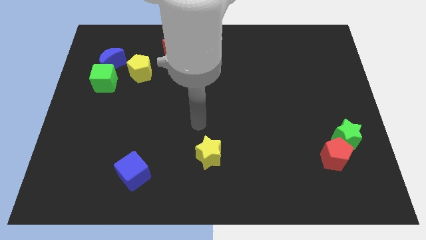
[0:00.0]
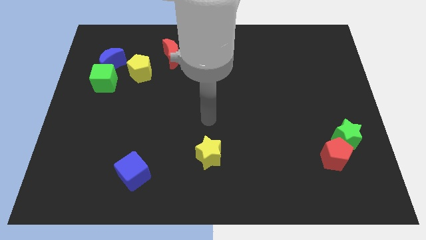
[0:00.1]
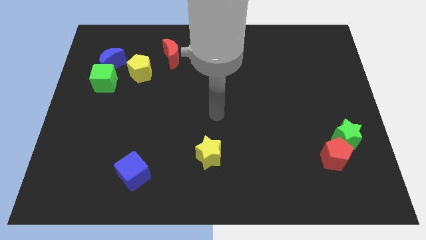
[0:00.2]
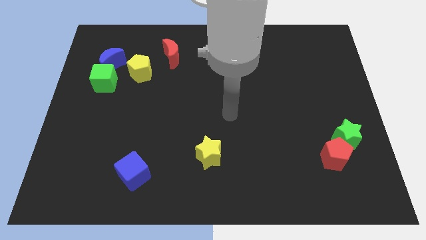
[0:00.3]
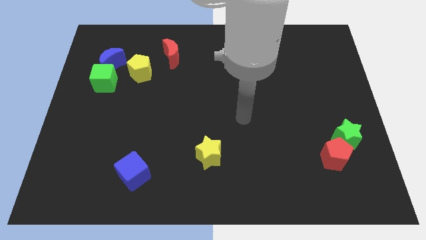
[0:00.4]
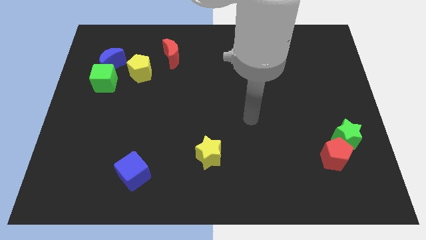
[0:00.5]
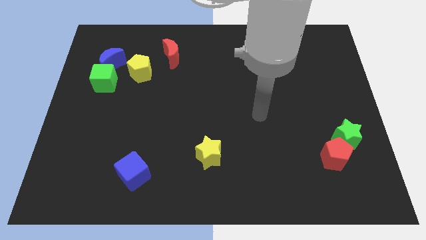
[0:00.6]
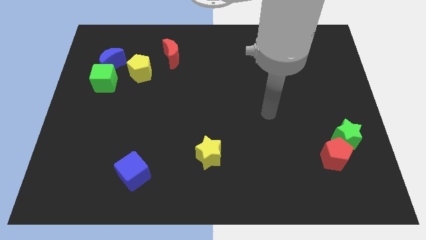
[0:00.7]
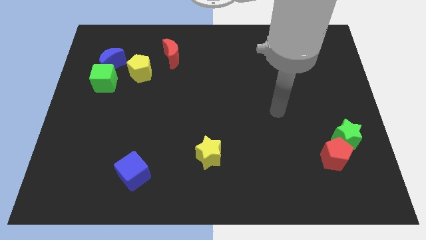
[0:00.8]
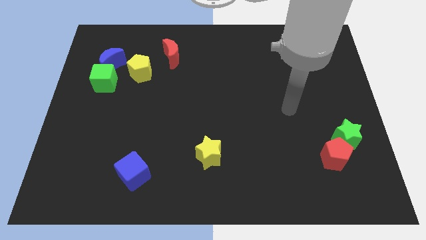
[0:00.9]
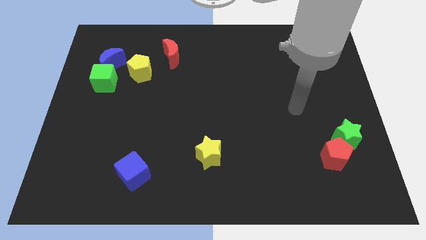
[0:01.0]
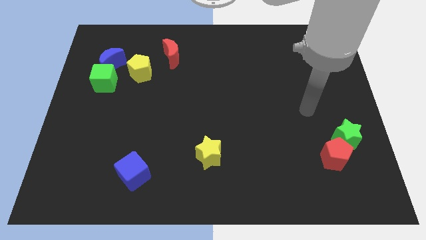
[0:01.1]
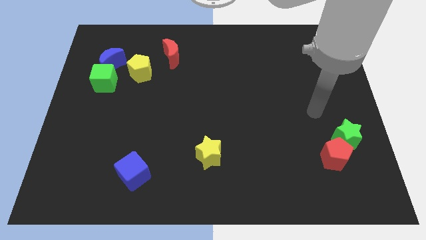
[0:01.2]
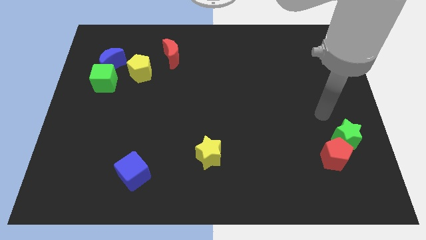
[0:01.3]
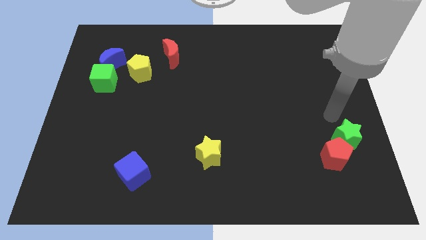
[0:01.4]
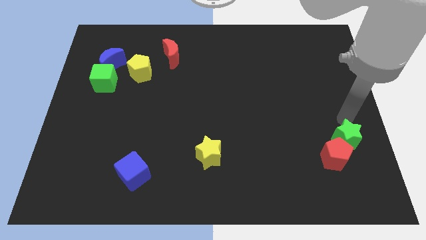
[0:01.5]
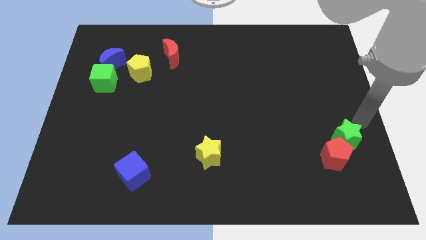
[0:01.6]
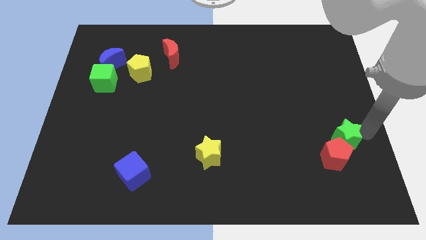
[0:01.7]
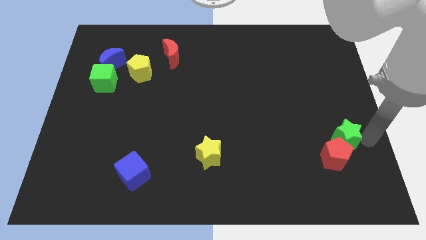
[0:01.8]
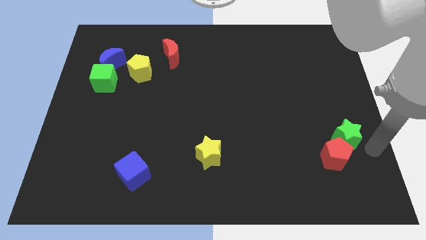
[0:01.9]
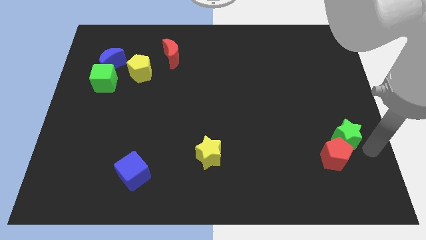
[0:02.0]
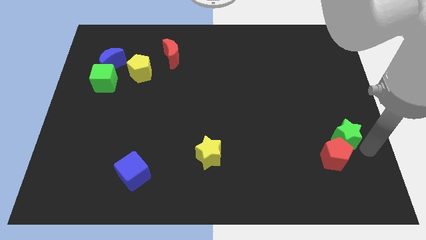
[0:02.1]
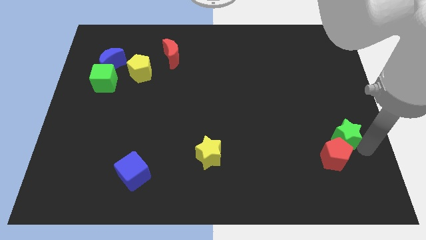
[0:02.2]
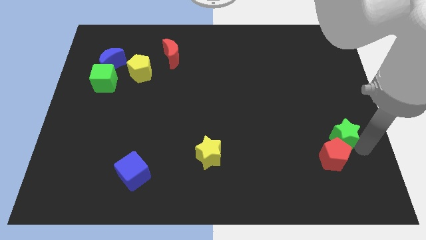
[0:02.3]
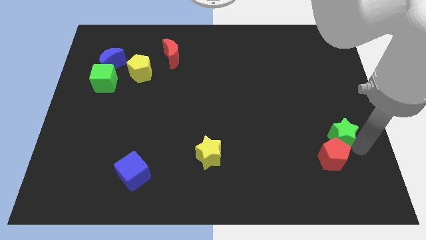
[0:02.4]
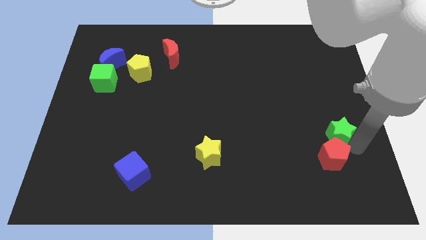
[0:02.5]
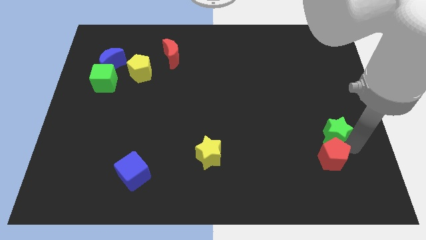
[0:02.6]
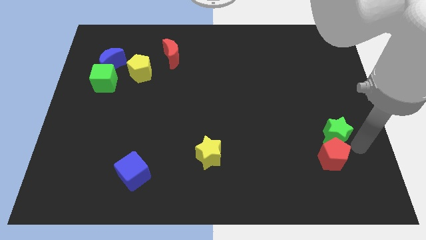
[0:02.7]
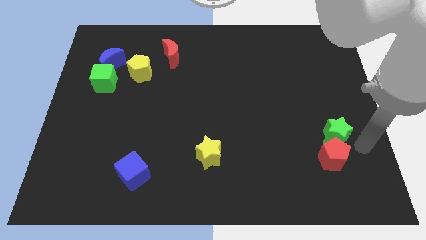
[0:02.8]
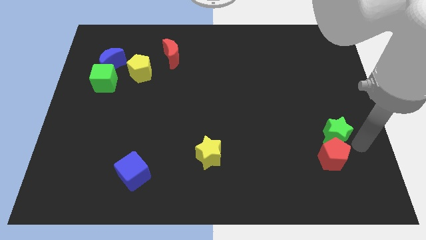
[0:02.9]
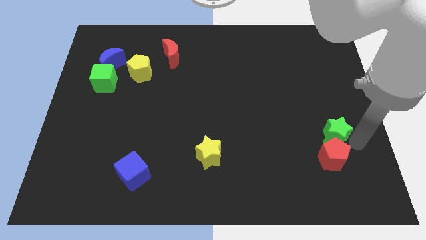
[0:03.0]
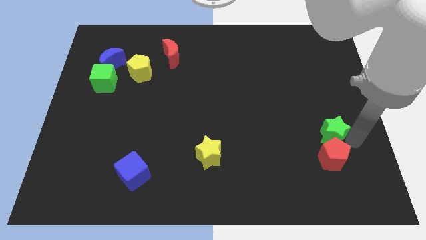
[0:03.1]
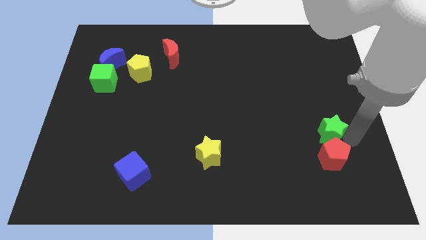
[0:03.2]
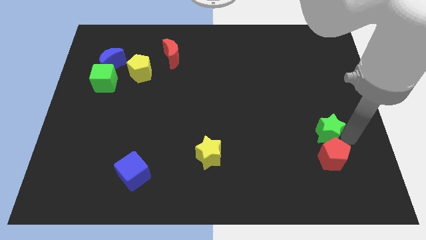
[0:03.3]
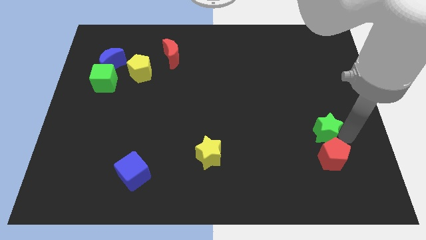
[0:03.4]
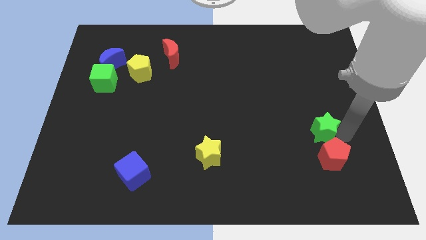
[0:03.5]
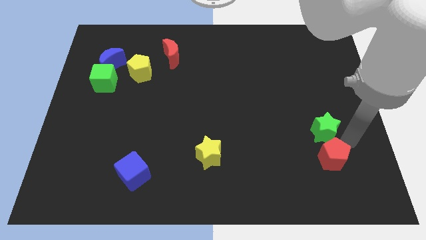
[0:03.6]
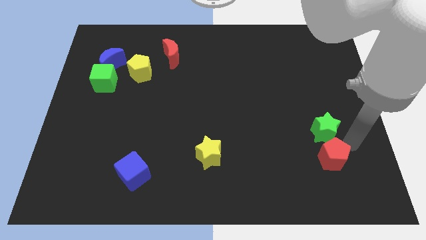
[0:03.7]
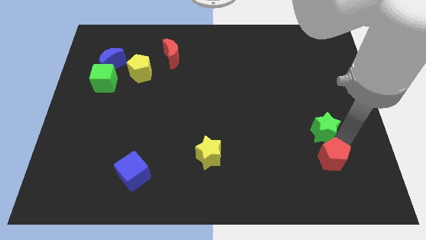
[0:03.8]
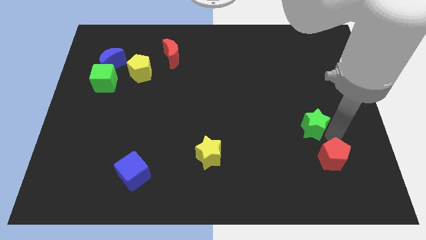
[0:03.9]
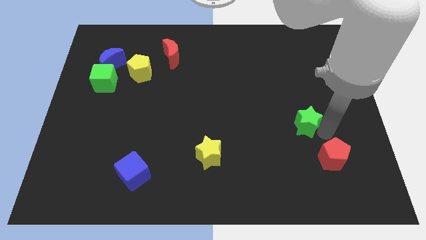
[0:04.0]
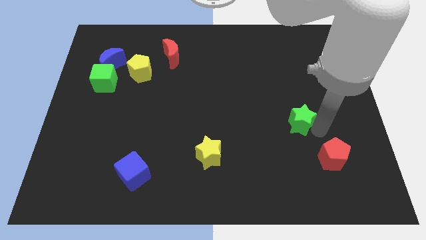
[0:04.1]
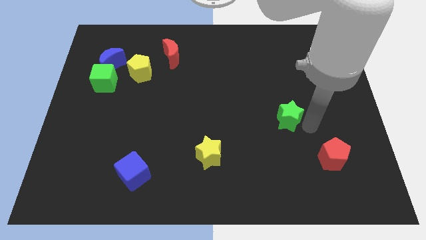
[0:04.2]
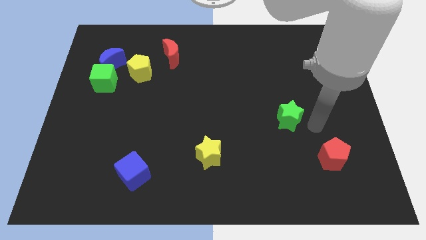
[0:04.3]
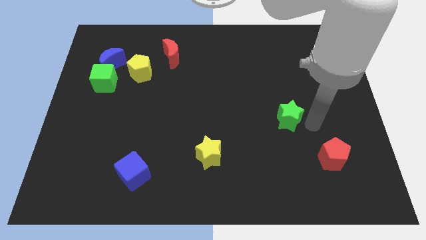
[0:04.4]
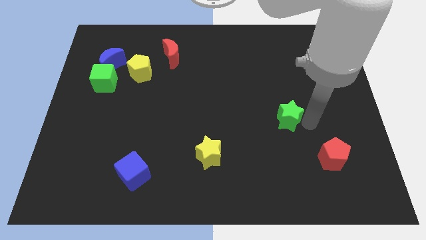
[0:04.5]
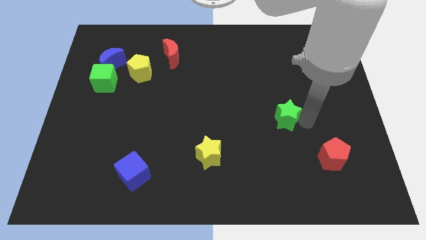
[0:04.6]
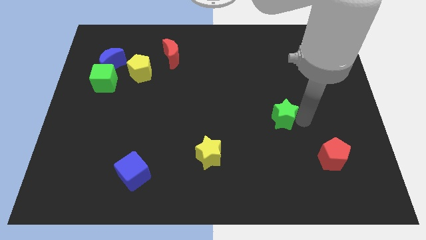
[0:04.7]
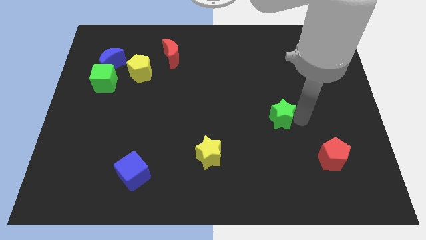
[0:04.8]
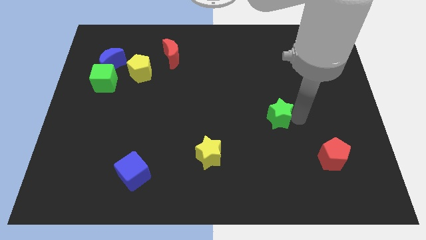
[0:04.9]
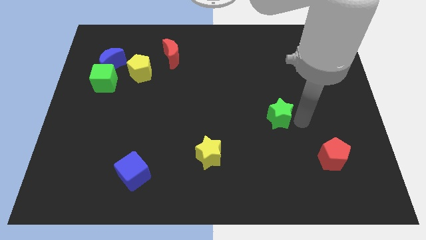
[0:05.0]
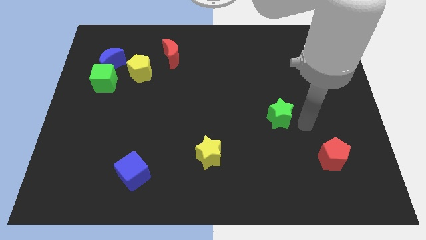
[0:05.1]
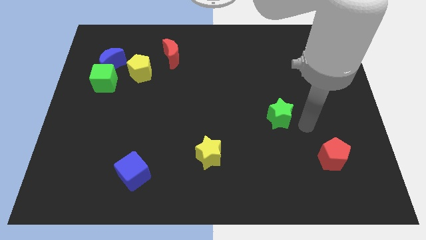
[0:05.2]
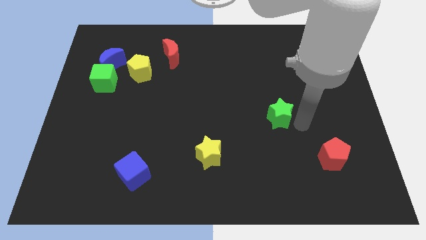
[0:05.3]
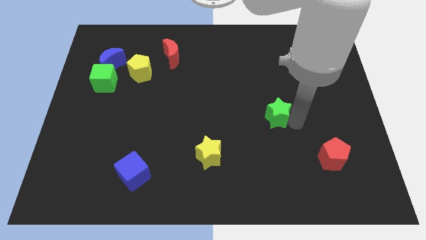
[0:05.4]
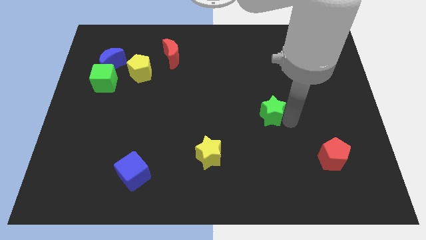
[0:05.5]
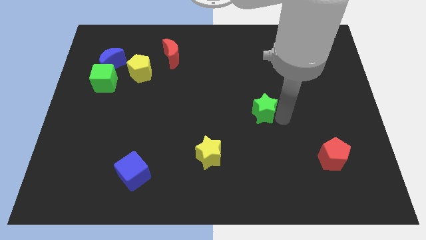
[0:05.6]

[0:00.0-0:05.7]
move the green star to the center
